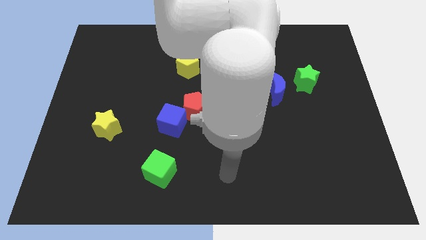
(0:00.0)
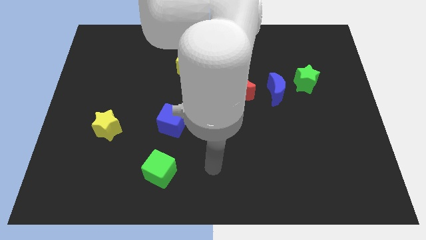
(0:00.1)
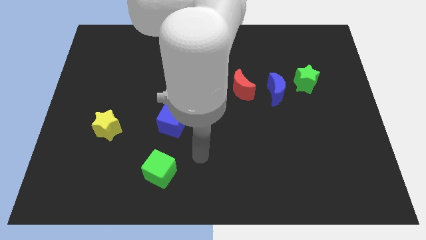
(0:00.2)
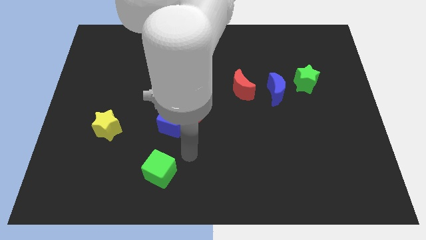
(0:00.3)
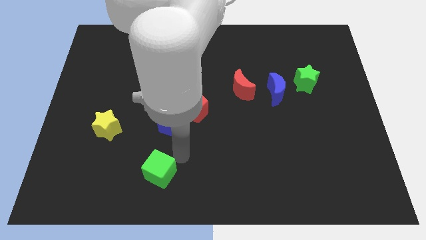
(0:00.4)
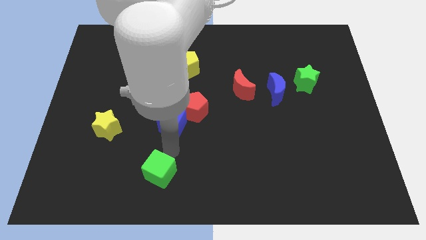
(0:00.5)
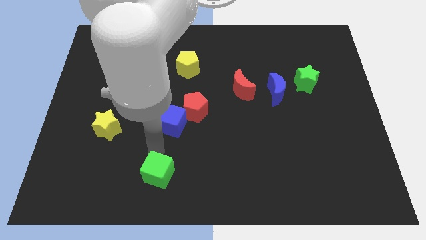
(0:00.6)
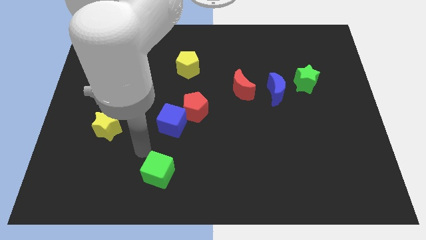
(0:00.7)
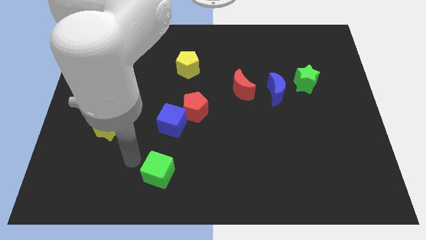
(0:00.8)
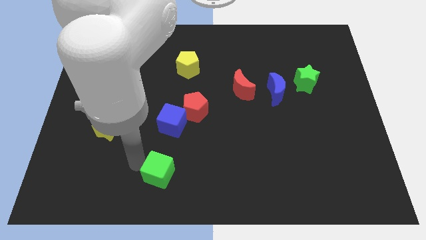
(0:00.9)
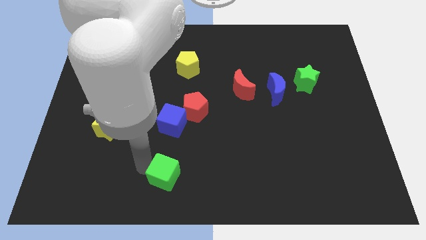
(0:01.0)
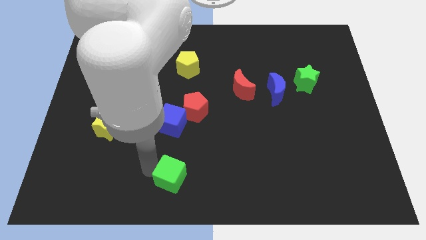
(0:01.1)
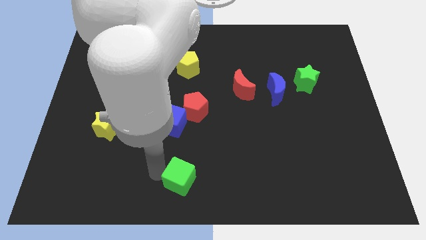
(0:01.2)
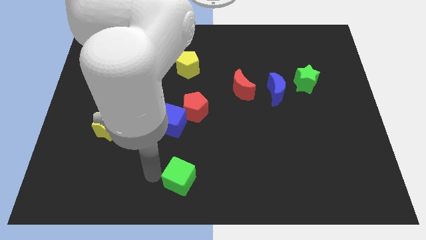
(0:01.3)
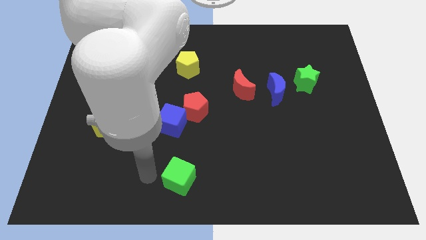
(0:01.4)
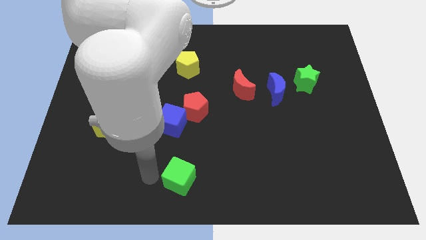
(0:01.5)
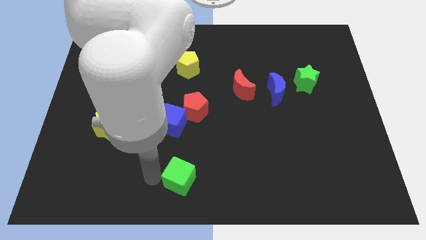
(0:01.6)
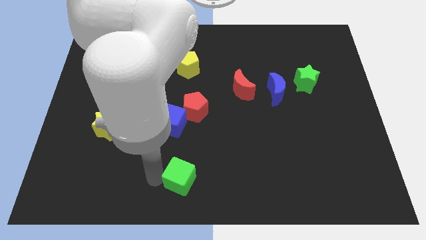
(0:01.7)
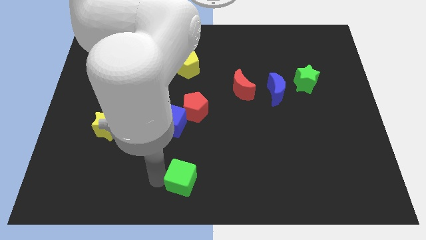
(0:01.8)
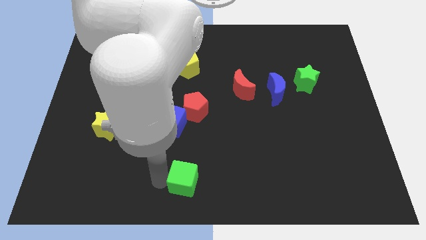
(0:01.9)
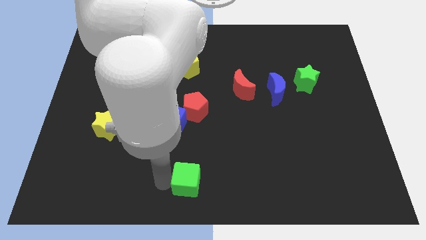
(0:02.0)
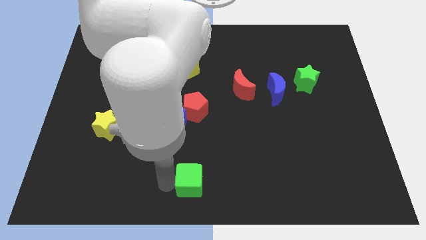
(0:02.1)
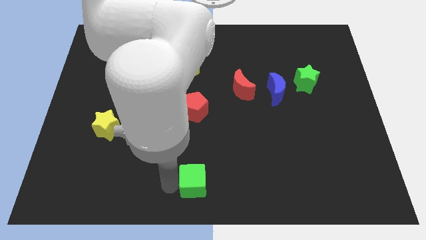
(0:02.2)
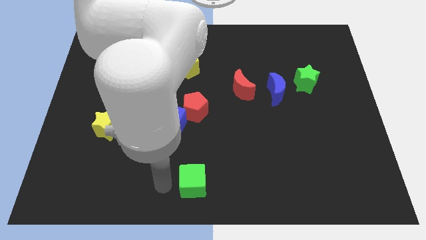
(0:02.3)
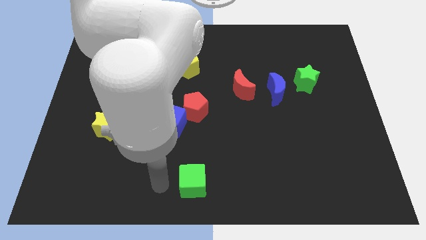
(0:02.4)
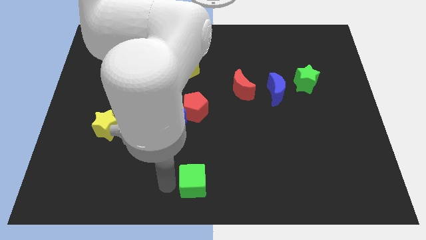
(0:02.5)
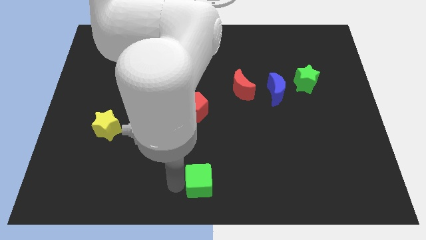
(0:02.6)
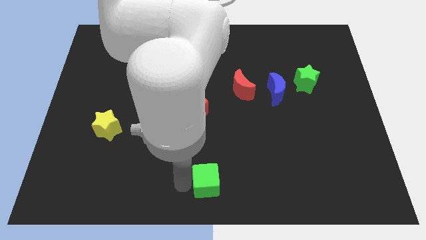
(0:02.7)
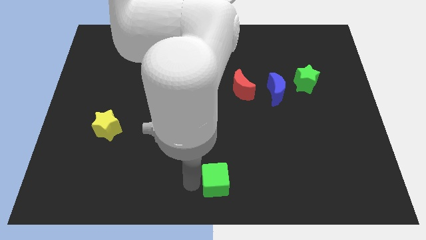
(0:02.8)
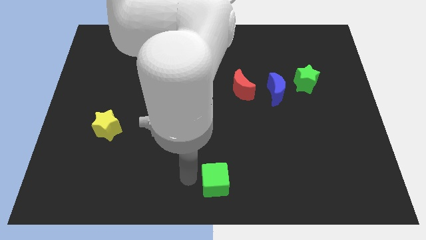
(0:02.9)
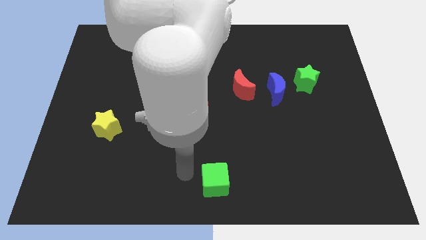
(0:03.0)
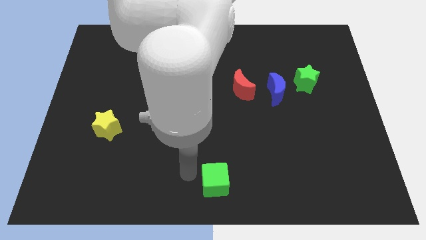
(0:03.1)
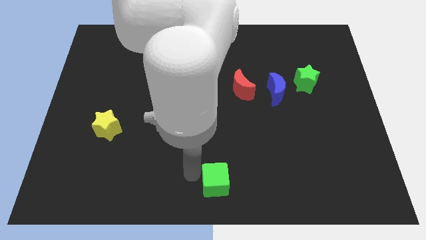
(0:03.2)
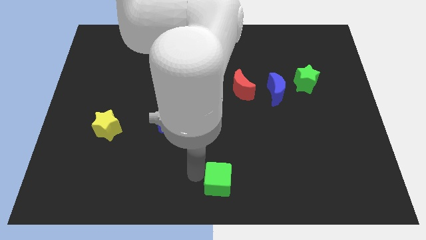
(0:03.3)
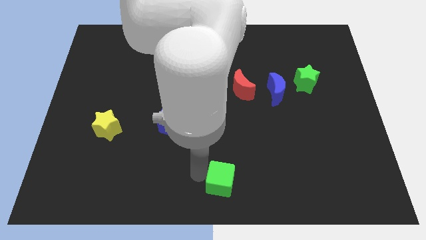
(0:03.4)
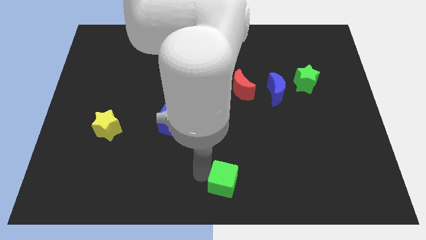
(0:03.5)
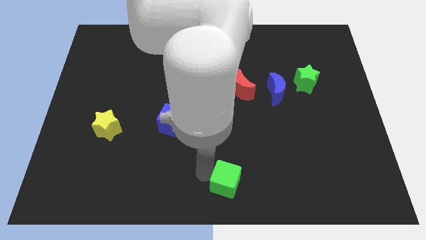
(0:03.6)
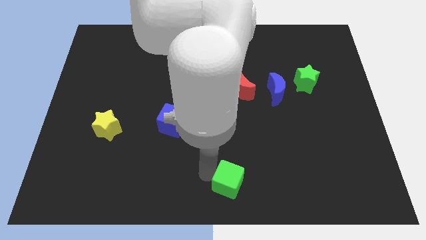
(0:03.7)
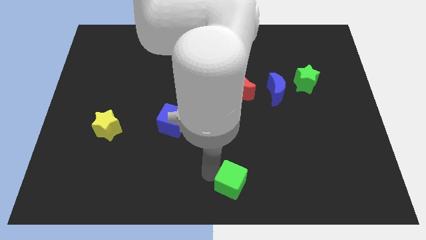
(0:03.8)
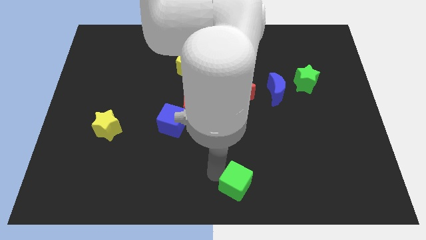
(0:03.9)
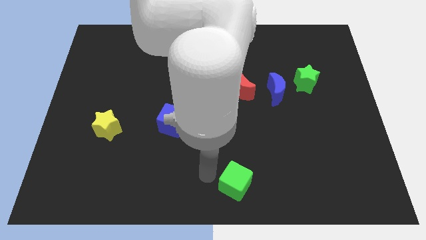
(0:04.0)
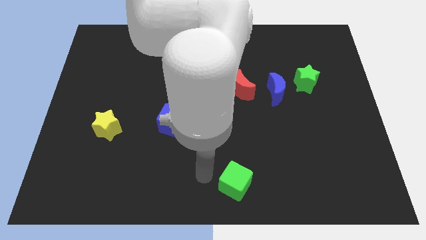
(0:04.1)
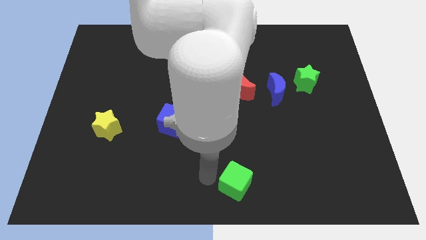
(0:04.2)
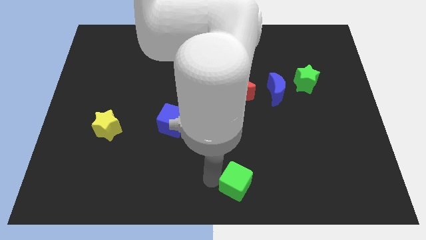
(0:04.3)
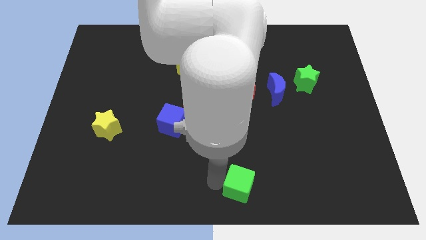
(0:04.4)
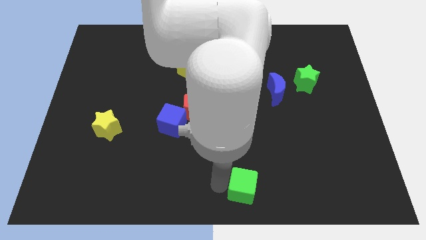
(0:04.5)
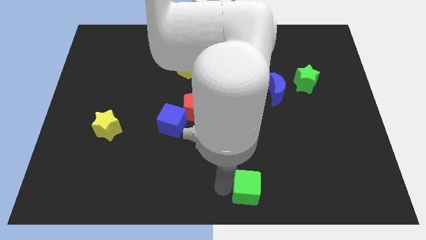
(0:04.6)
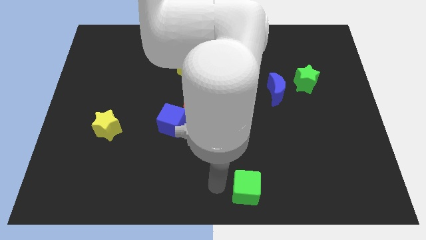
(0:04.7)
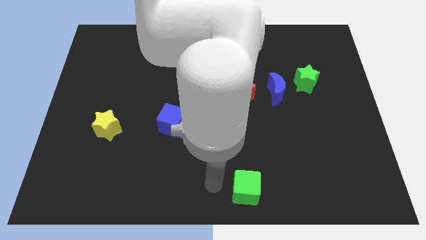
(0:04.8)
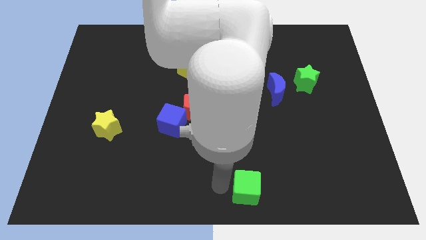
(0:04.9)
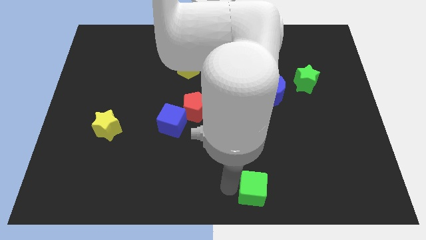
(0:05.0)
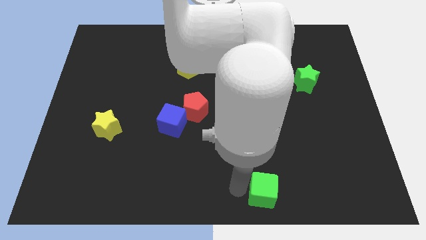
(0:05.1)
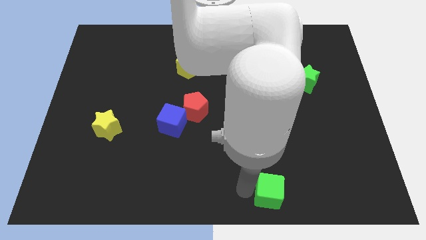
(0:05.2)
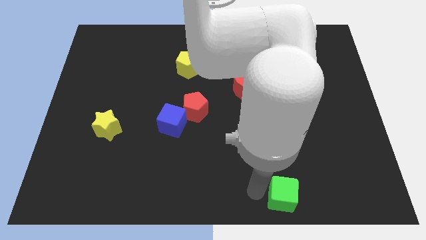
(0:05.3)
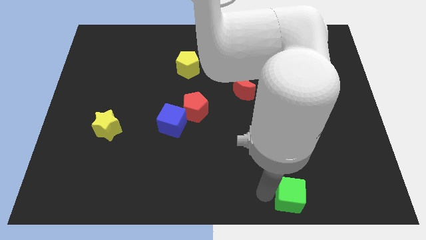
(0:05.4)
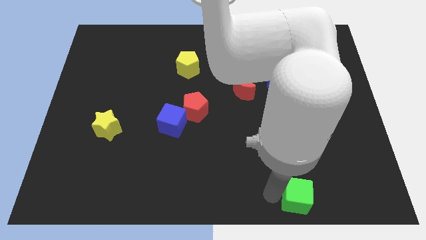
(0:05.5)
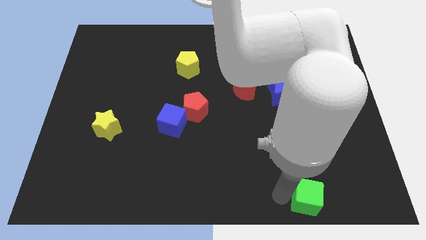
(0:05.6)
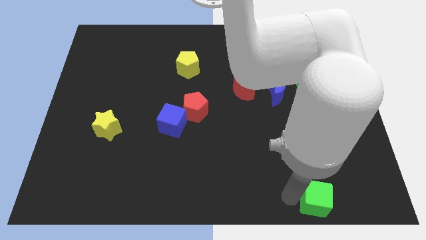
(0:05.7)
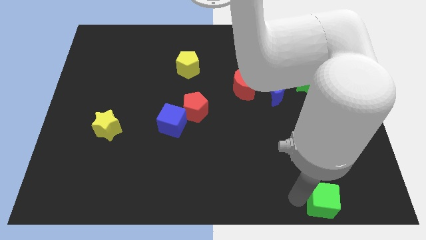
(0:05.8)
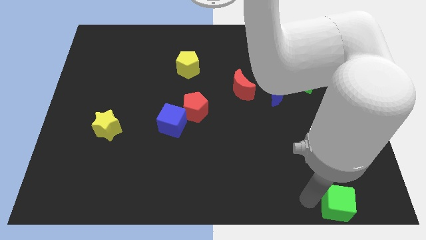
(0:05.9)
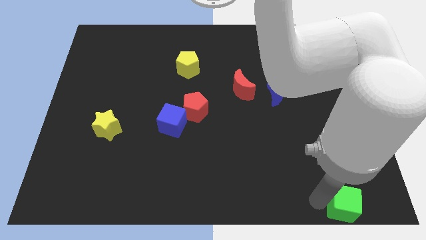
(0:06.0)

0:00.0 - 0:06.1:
push the green cube to the bottom right
